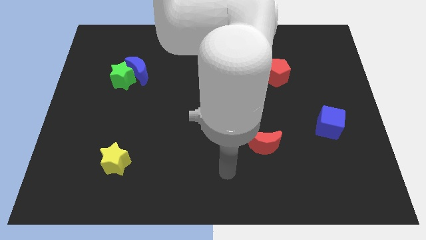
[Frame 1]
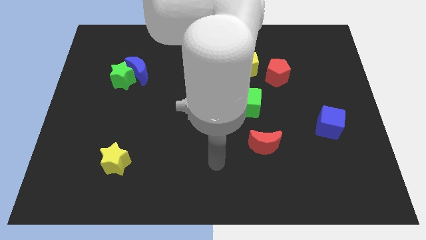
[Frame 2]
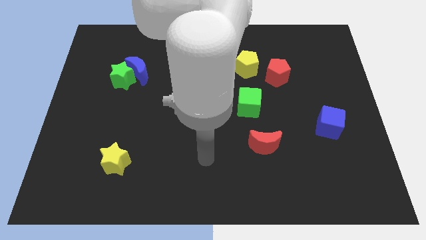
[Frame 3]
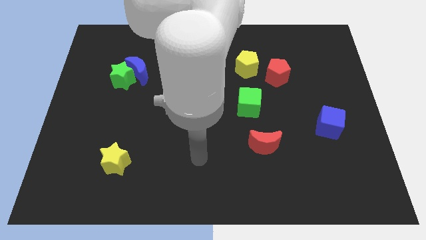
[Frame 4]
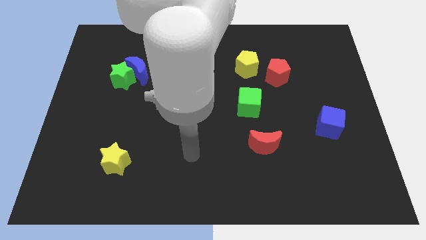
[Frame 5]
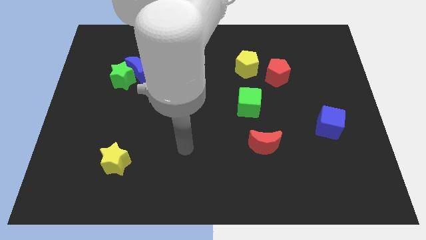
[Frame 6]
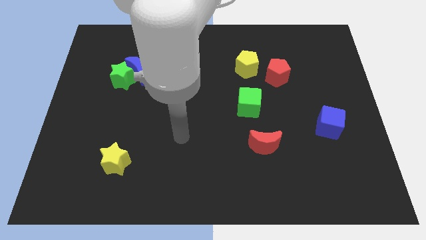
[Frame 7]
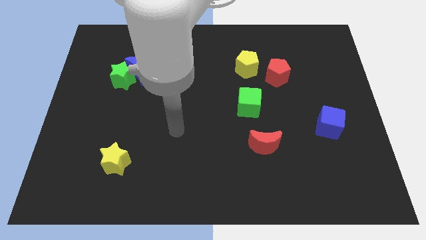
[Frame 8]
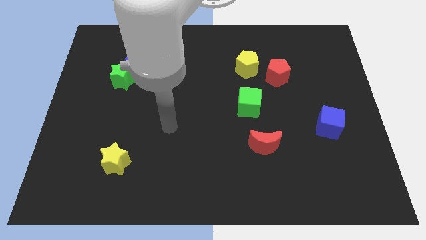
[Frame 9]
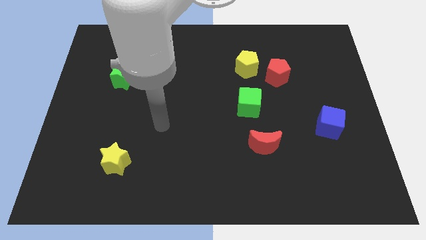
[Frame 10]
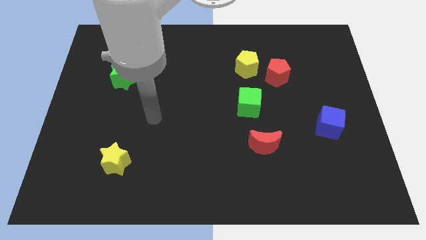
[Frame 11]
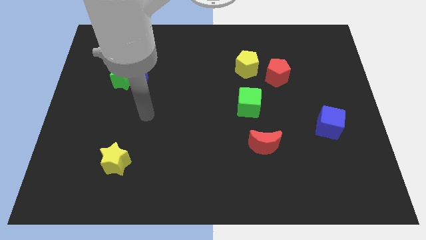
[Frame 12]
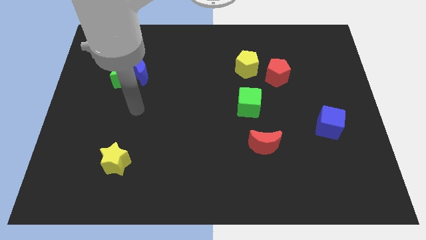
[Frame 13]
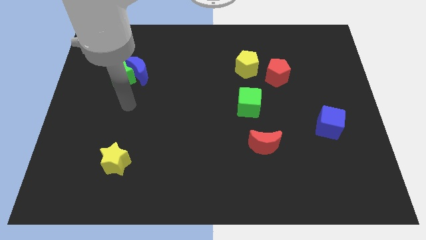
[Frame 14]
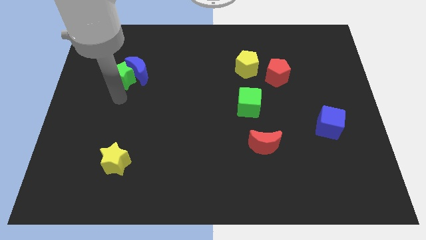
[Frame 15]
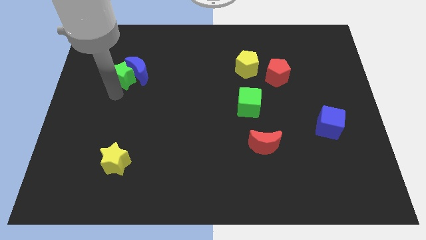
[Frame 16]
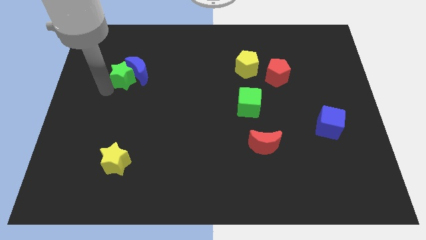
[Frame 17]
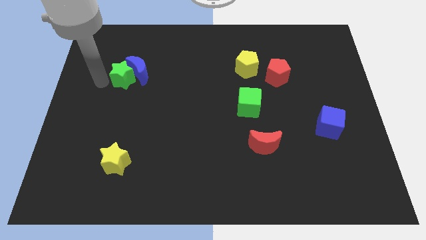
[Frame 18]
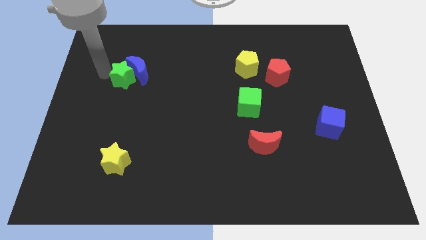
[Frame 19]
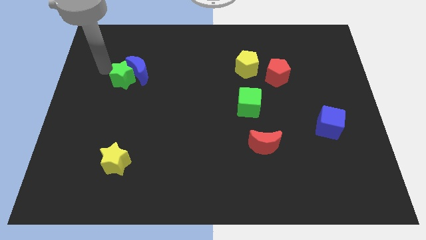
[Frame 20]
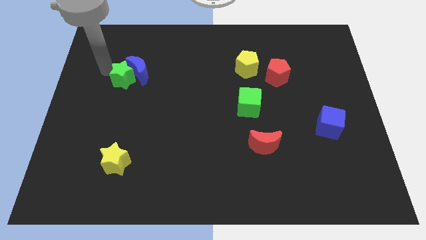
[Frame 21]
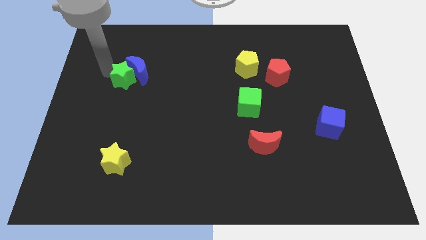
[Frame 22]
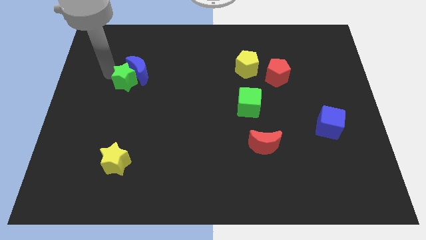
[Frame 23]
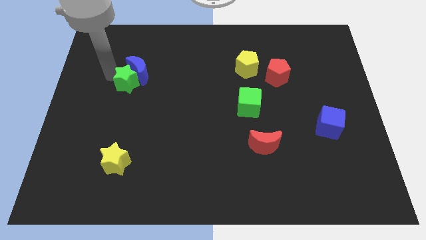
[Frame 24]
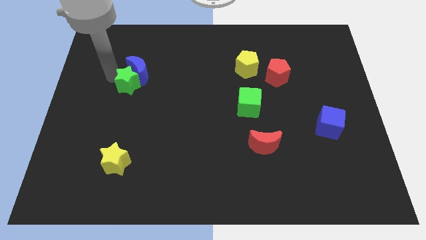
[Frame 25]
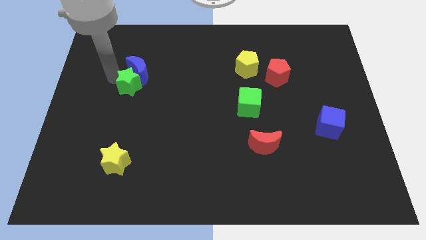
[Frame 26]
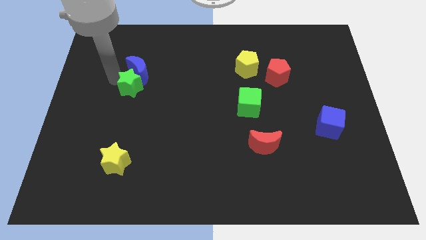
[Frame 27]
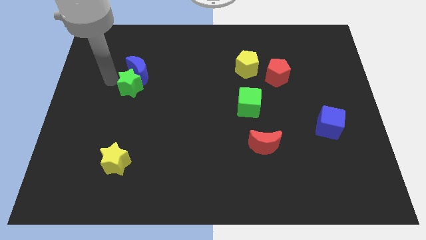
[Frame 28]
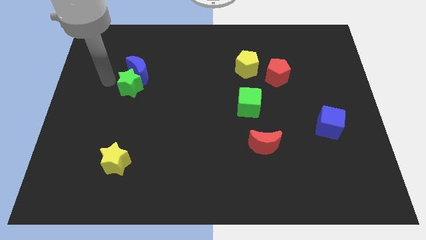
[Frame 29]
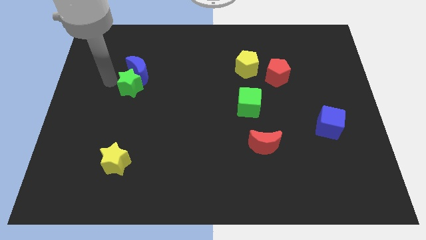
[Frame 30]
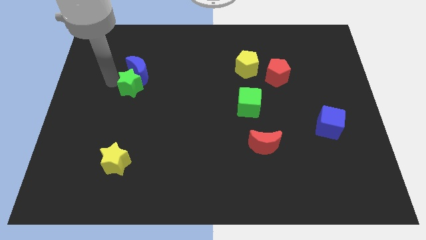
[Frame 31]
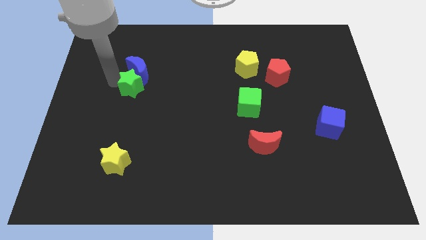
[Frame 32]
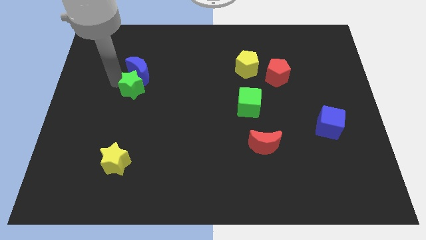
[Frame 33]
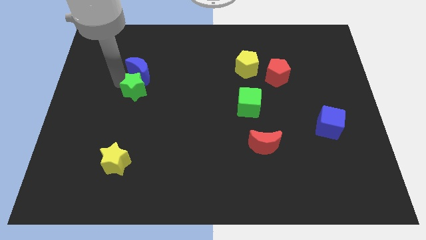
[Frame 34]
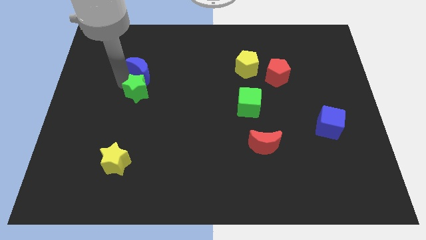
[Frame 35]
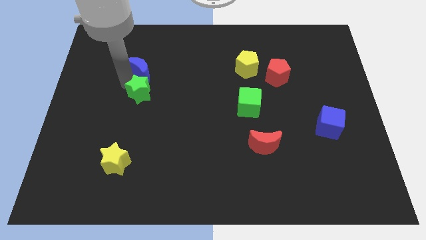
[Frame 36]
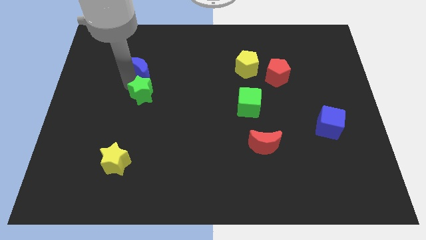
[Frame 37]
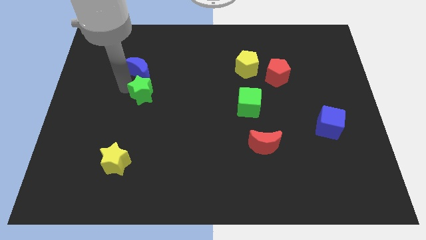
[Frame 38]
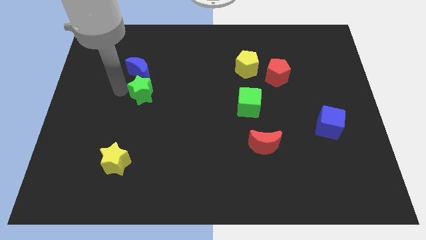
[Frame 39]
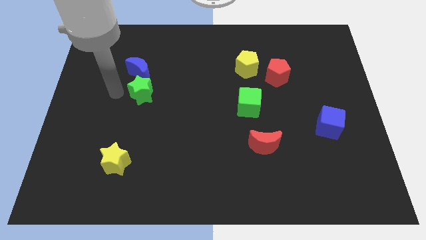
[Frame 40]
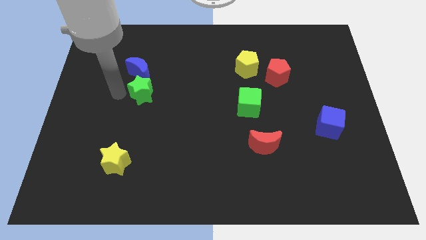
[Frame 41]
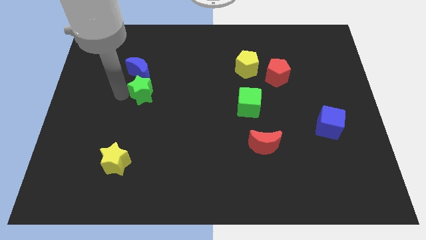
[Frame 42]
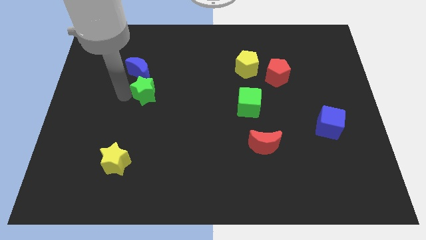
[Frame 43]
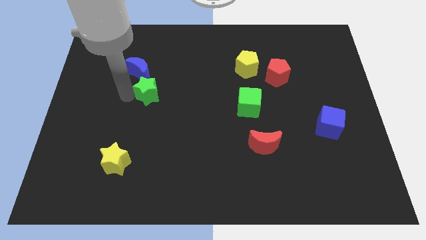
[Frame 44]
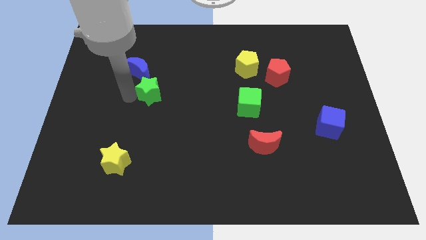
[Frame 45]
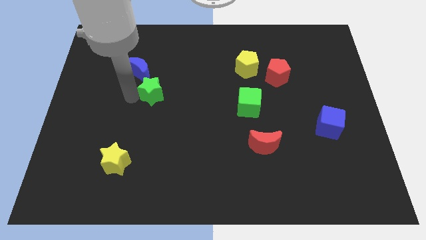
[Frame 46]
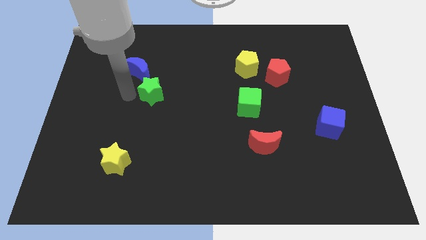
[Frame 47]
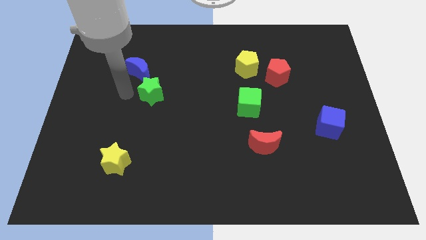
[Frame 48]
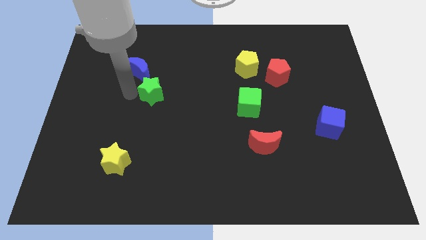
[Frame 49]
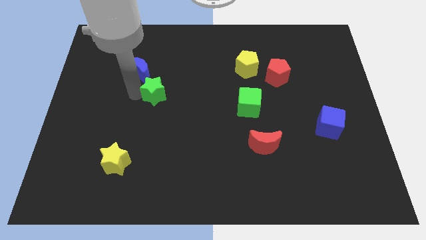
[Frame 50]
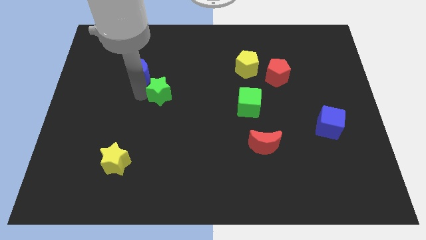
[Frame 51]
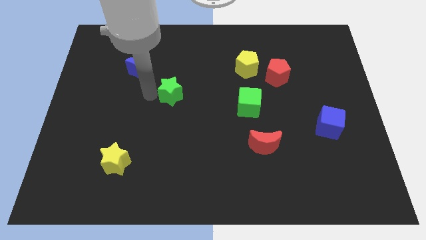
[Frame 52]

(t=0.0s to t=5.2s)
put the green star to the center

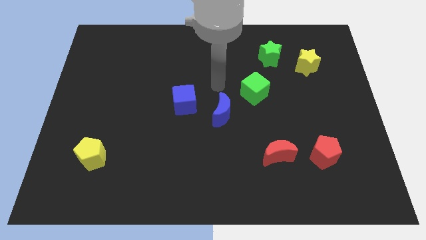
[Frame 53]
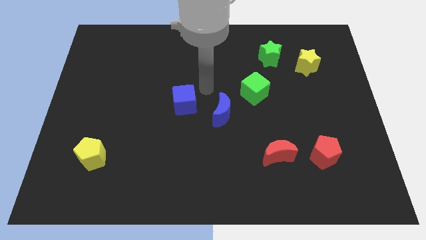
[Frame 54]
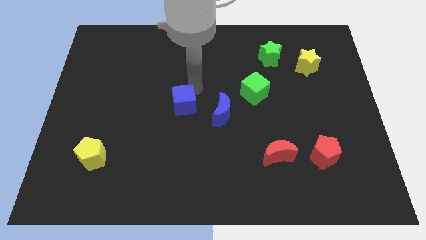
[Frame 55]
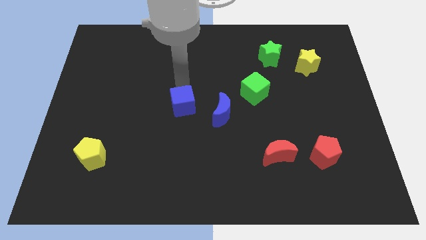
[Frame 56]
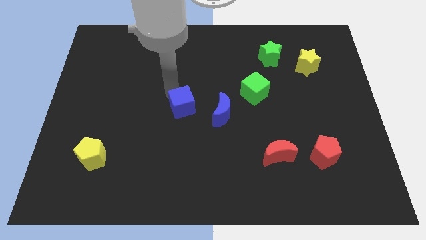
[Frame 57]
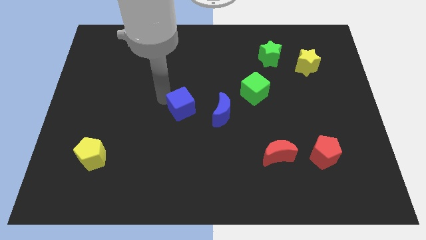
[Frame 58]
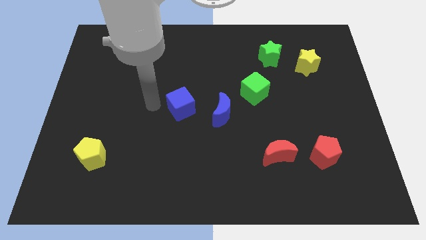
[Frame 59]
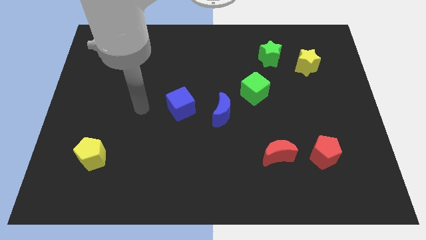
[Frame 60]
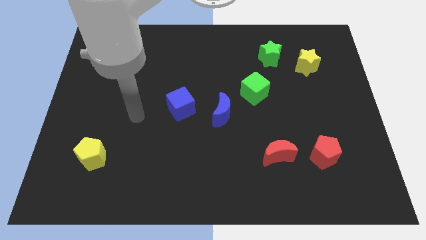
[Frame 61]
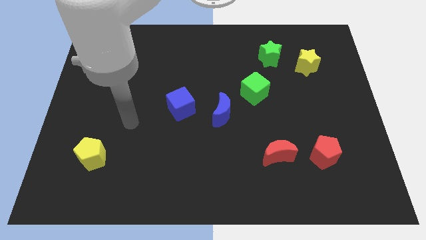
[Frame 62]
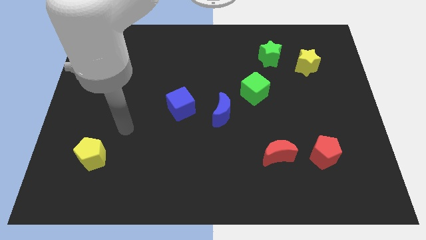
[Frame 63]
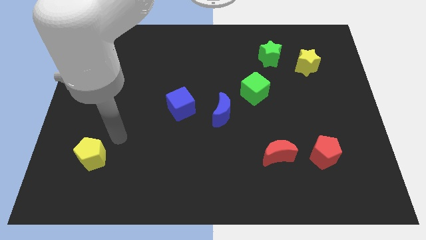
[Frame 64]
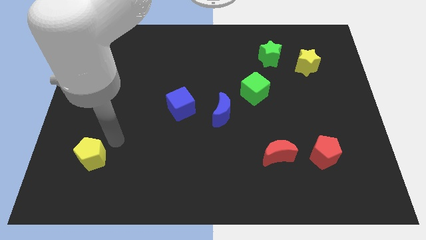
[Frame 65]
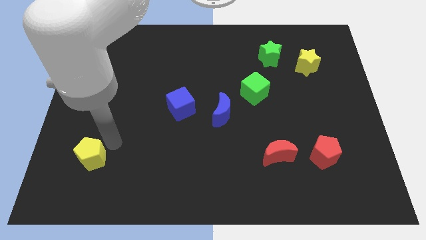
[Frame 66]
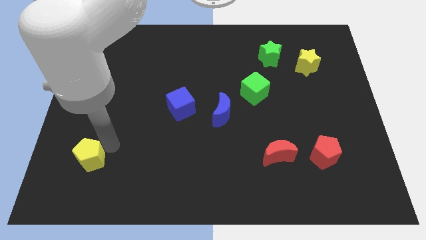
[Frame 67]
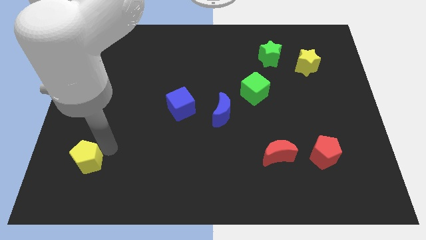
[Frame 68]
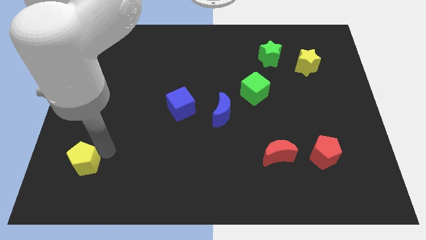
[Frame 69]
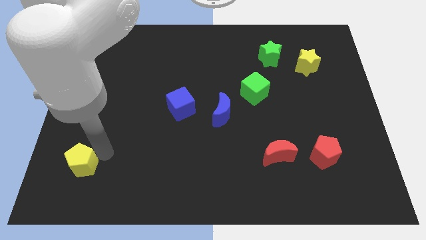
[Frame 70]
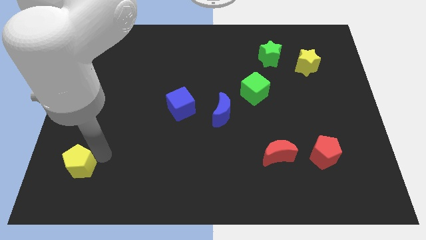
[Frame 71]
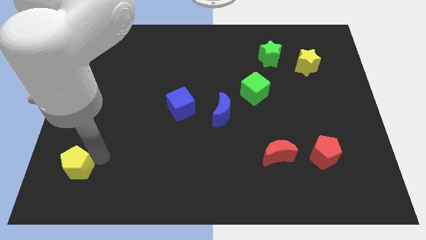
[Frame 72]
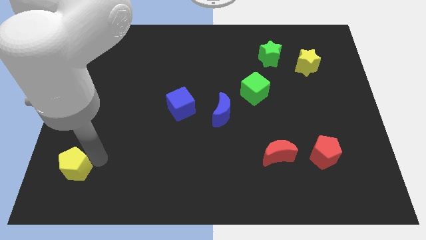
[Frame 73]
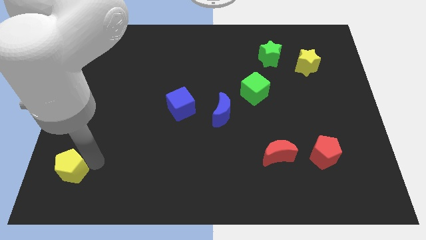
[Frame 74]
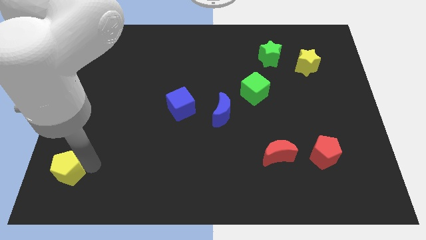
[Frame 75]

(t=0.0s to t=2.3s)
move the yellow pentagon to the bottom left of the board
